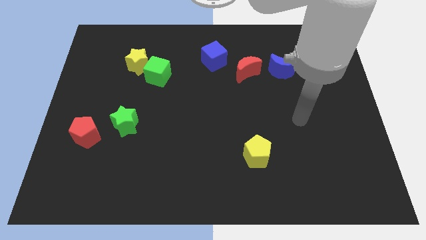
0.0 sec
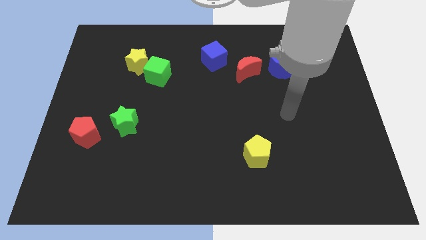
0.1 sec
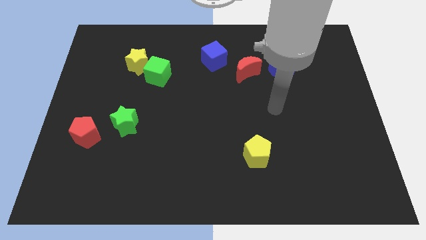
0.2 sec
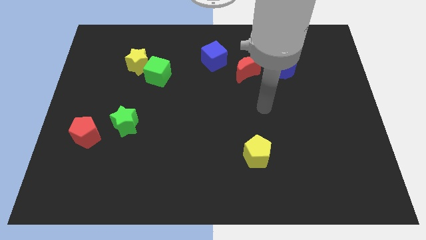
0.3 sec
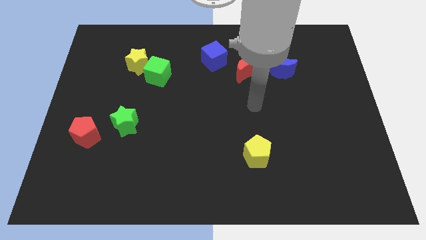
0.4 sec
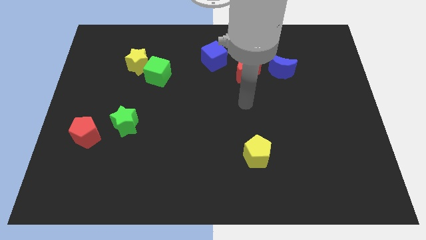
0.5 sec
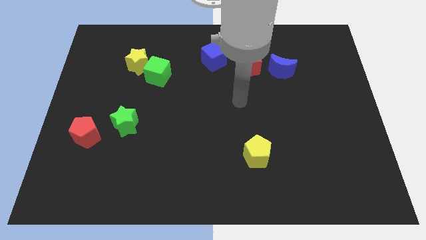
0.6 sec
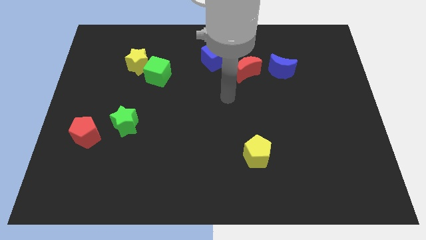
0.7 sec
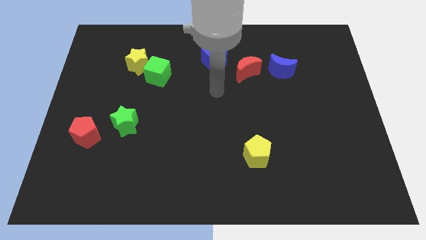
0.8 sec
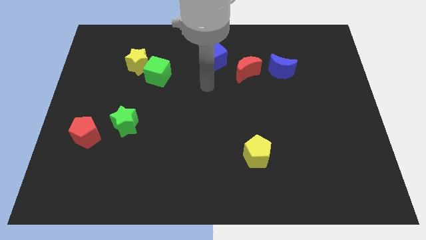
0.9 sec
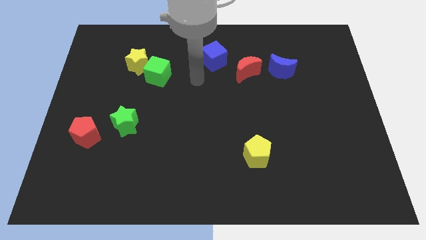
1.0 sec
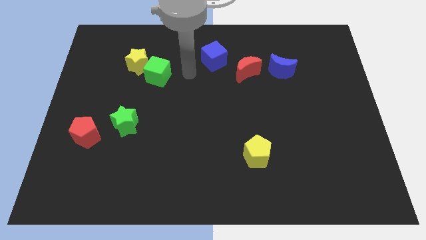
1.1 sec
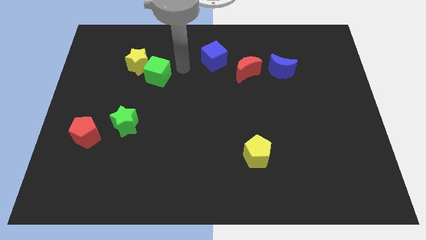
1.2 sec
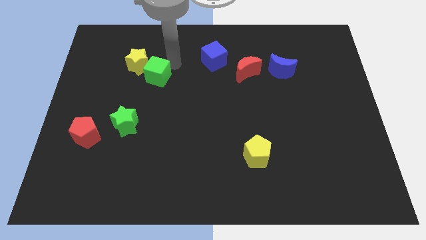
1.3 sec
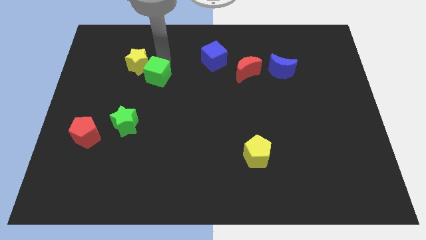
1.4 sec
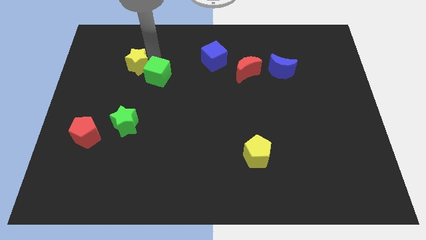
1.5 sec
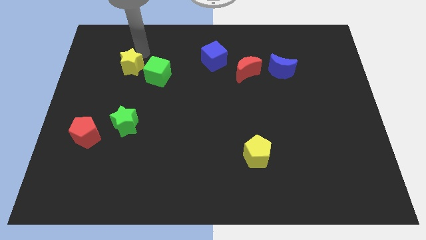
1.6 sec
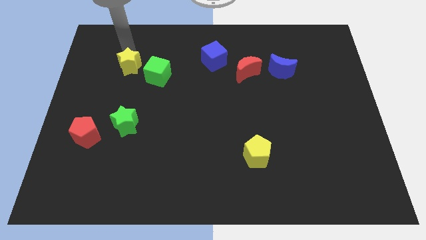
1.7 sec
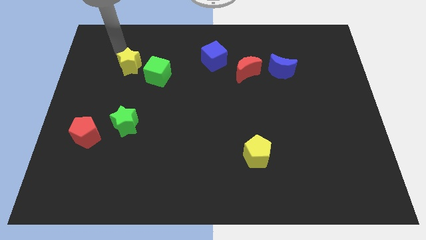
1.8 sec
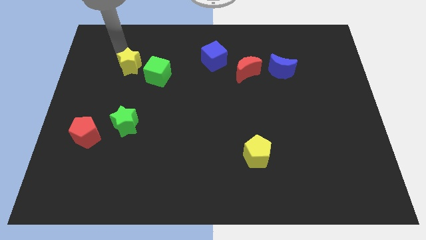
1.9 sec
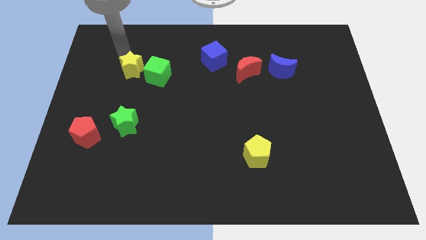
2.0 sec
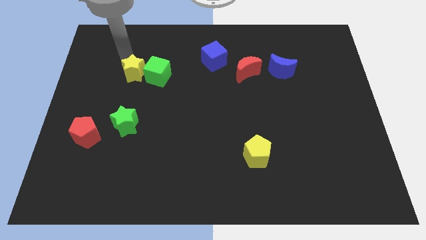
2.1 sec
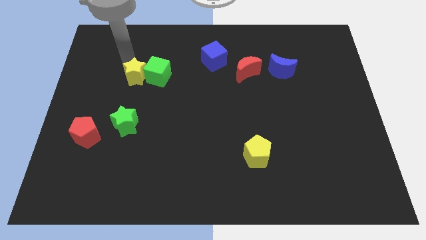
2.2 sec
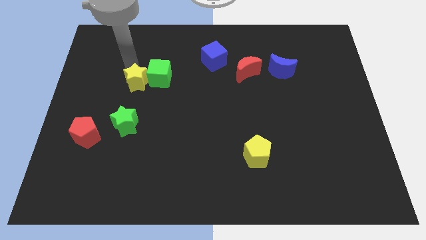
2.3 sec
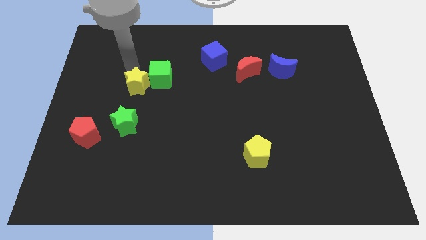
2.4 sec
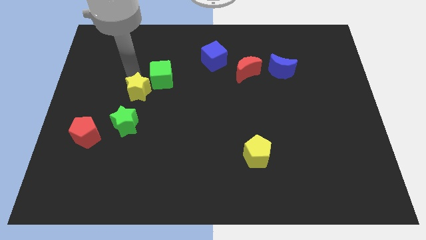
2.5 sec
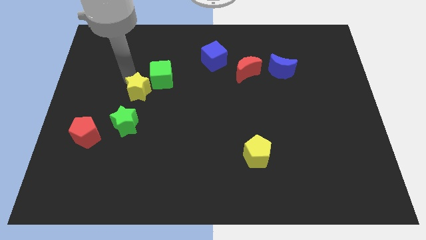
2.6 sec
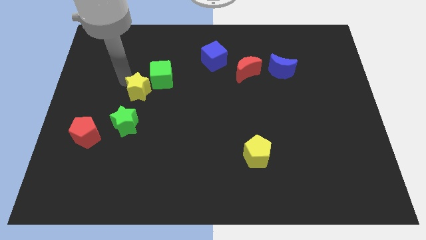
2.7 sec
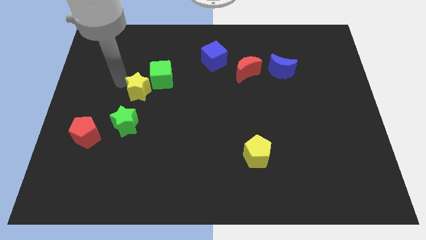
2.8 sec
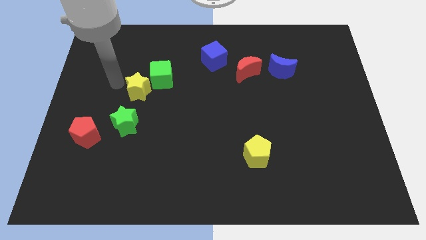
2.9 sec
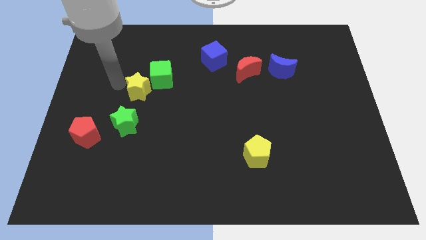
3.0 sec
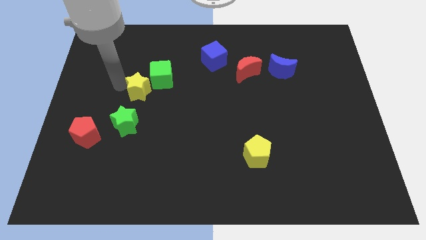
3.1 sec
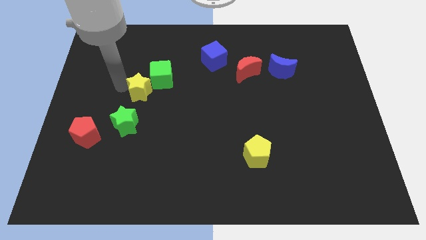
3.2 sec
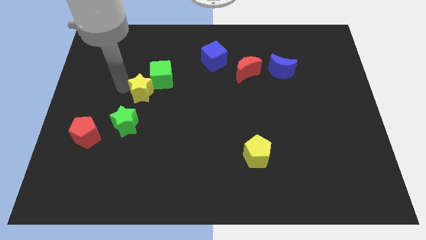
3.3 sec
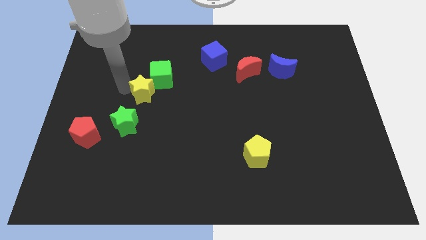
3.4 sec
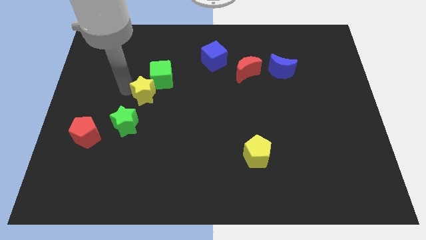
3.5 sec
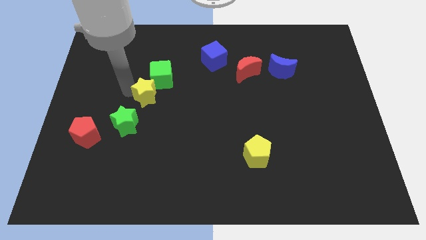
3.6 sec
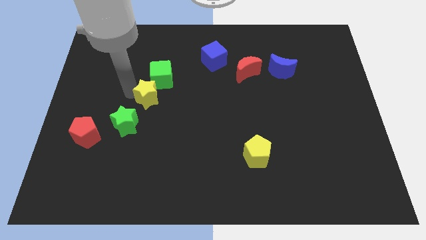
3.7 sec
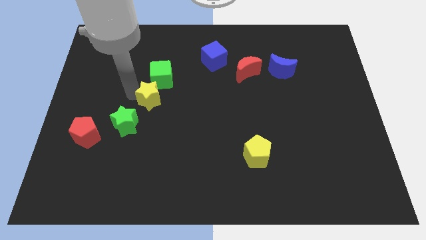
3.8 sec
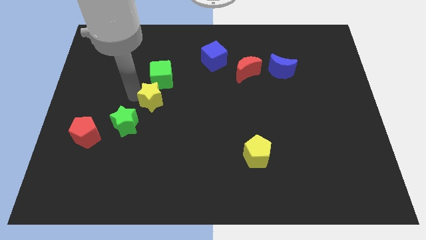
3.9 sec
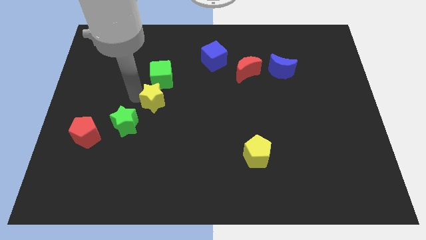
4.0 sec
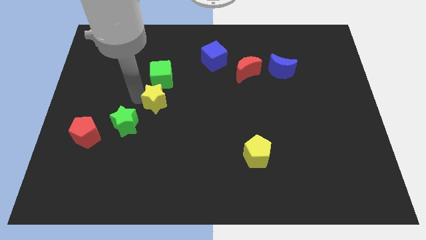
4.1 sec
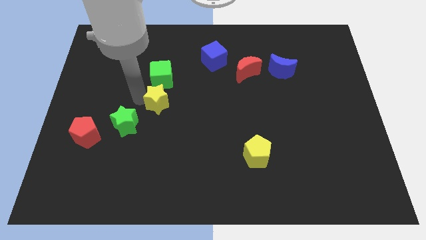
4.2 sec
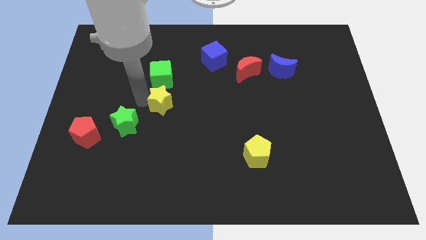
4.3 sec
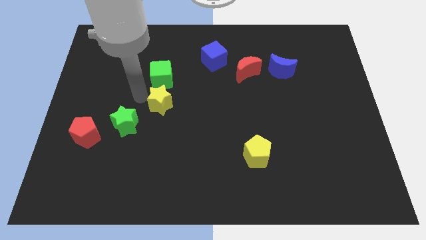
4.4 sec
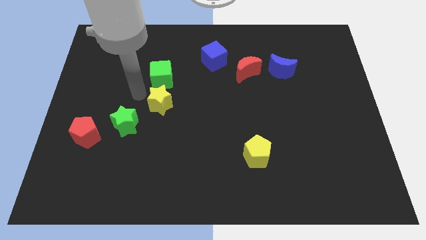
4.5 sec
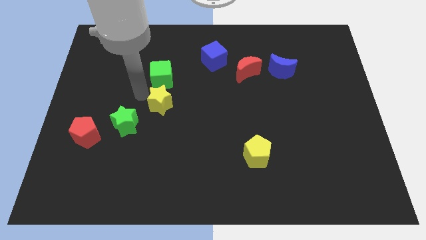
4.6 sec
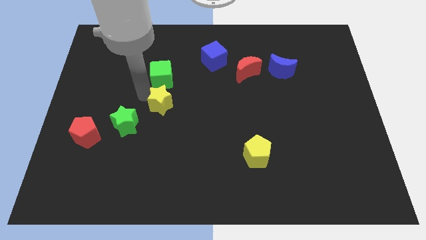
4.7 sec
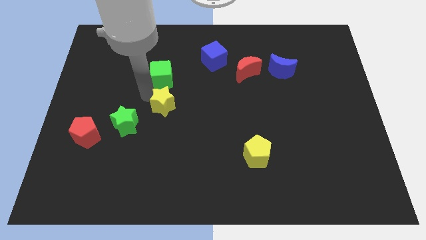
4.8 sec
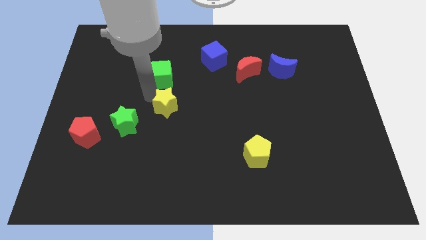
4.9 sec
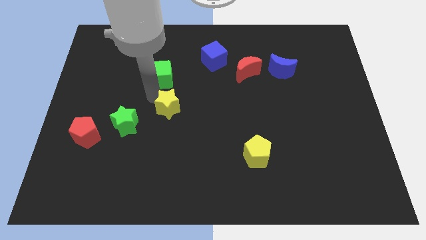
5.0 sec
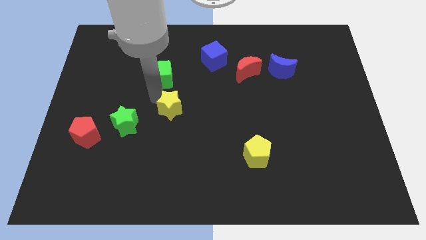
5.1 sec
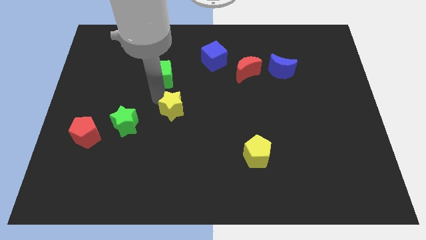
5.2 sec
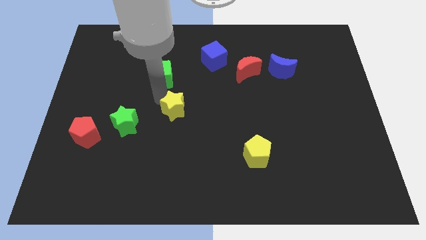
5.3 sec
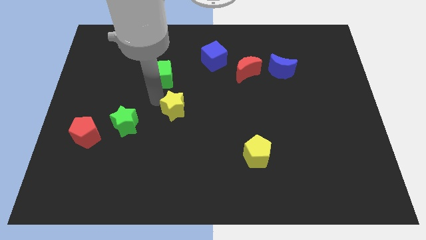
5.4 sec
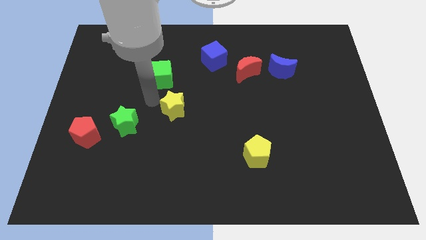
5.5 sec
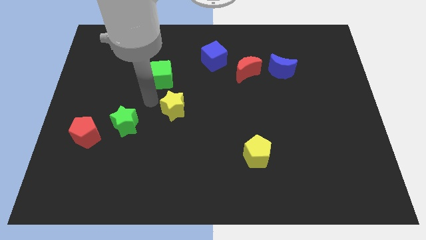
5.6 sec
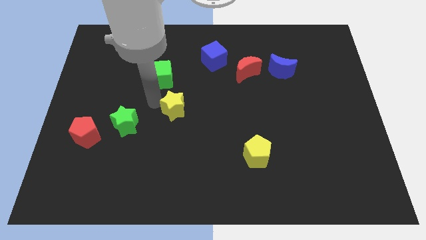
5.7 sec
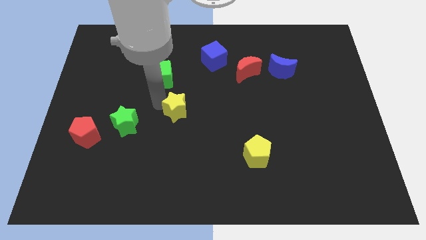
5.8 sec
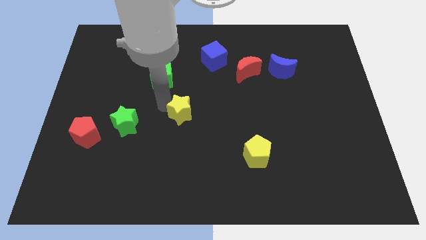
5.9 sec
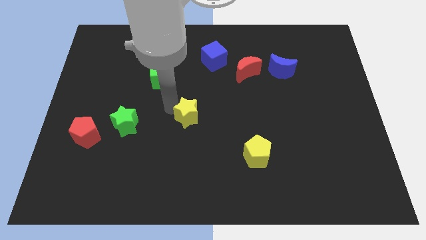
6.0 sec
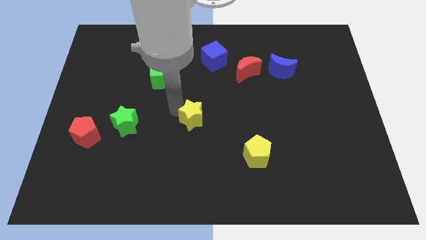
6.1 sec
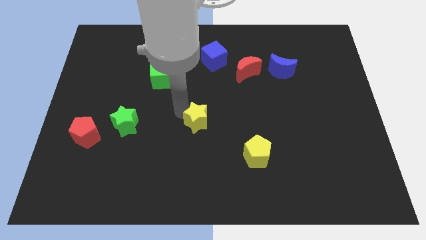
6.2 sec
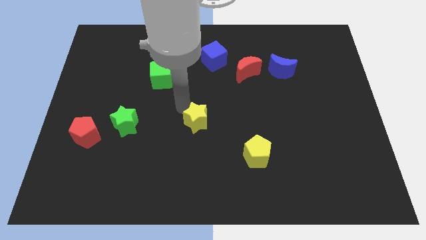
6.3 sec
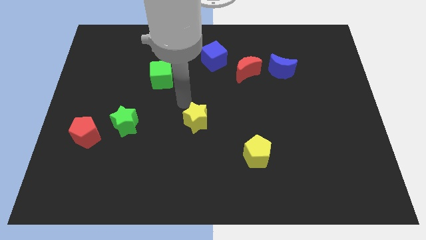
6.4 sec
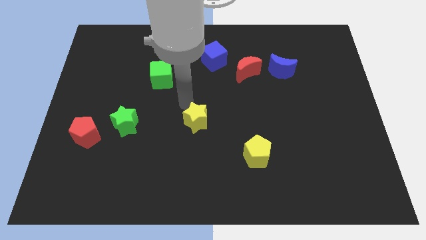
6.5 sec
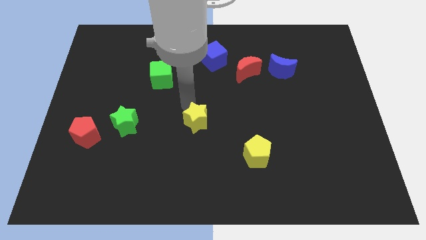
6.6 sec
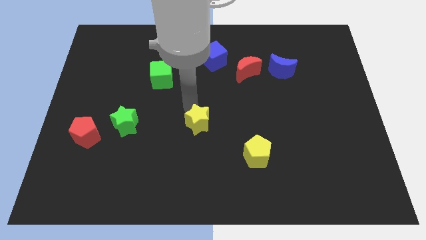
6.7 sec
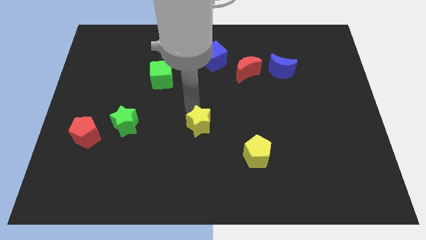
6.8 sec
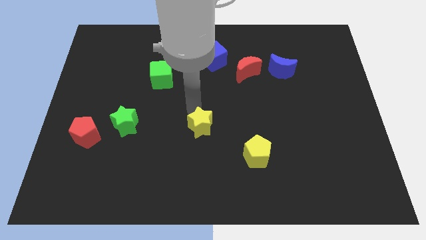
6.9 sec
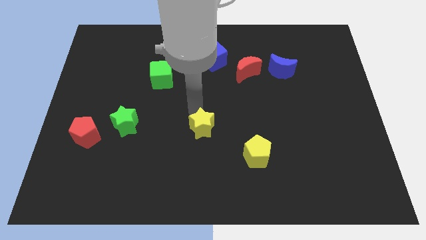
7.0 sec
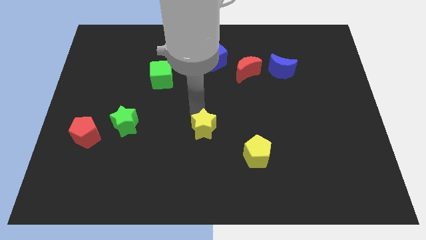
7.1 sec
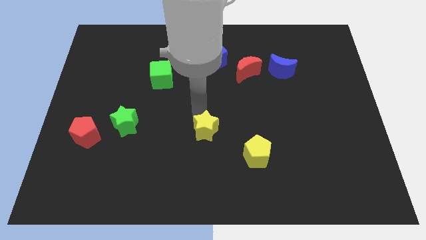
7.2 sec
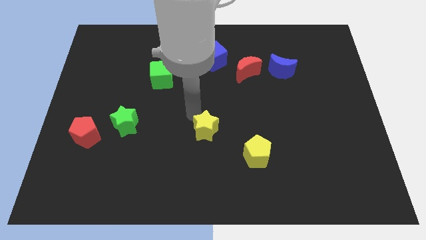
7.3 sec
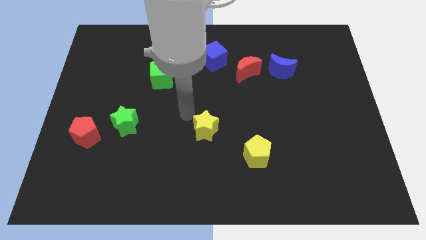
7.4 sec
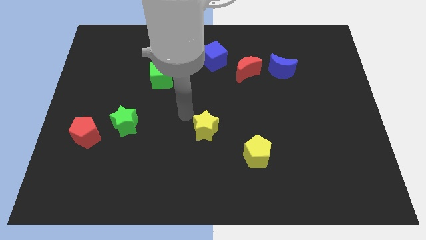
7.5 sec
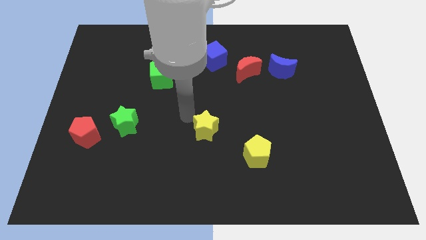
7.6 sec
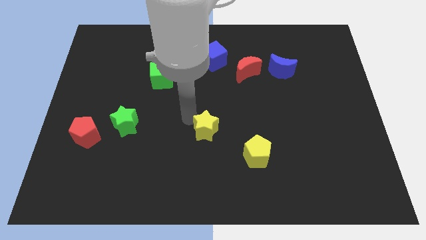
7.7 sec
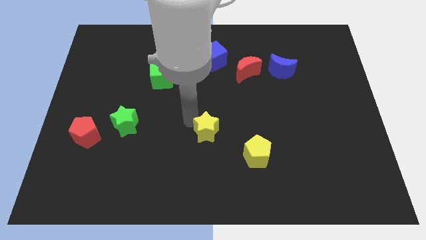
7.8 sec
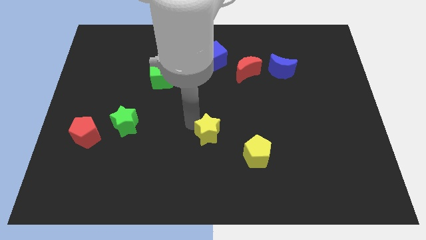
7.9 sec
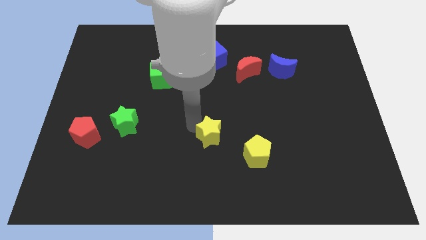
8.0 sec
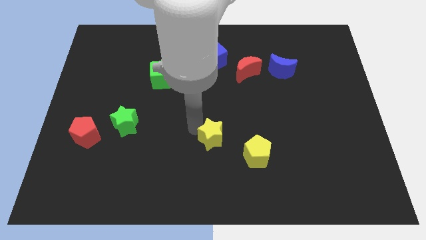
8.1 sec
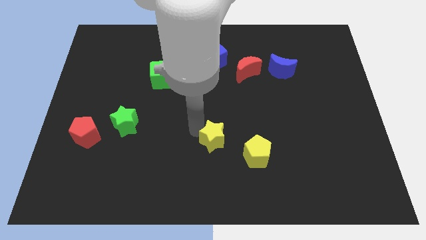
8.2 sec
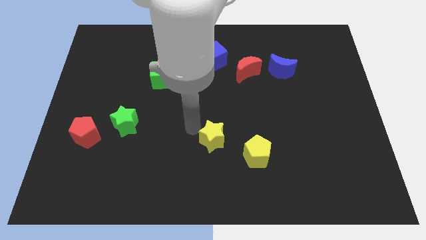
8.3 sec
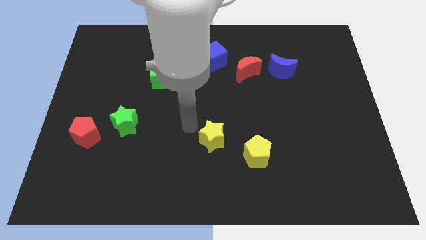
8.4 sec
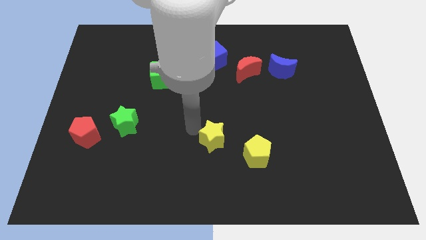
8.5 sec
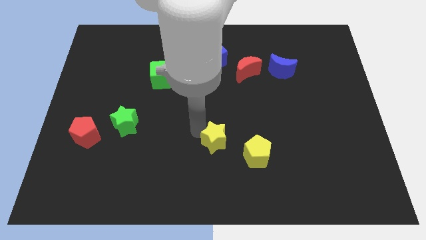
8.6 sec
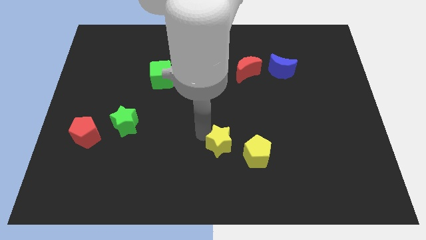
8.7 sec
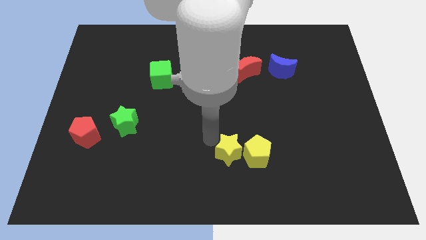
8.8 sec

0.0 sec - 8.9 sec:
put the yellow star next to the yellow pentagon
